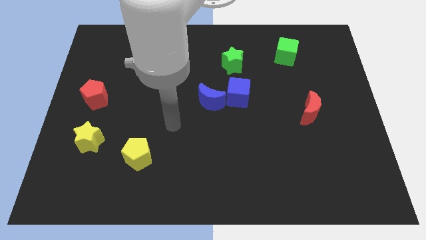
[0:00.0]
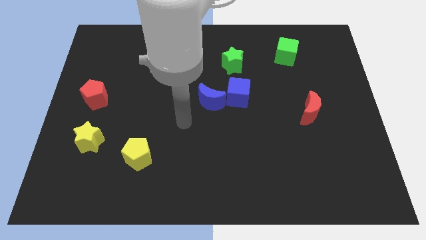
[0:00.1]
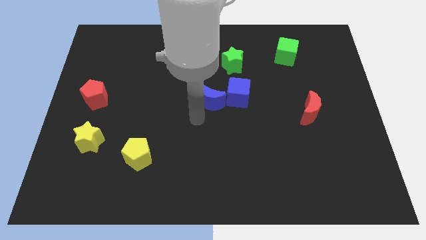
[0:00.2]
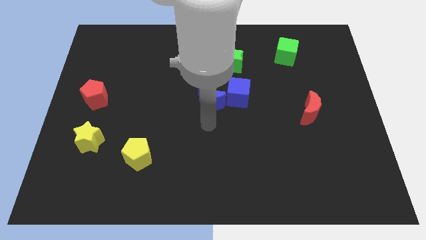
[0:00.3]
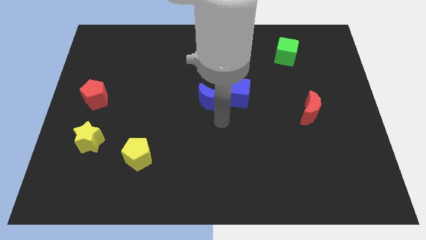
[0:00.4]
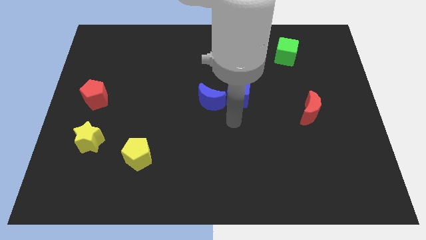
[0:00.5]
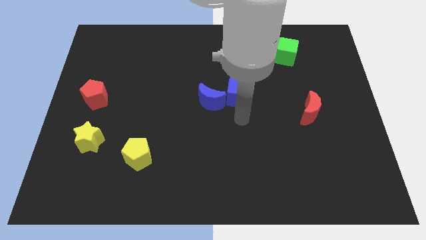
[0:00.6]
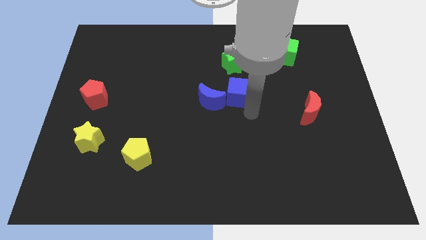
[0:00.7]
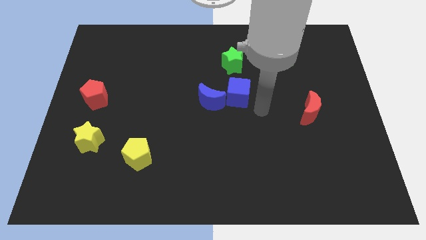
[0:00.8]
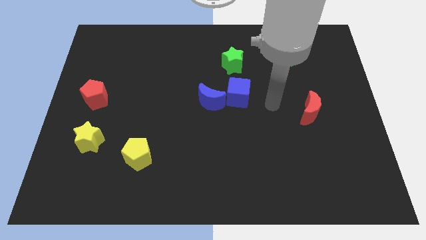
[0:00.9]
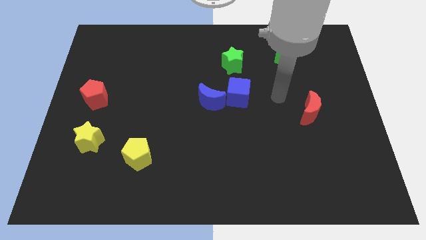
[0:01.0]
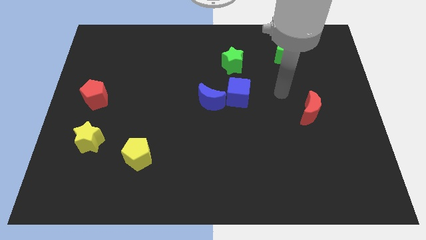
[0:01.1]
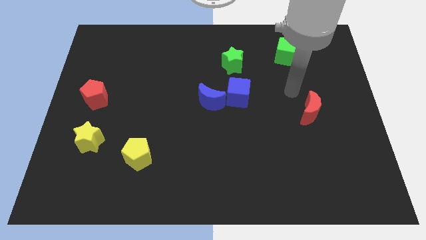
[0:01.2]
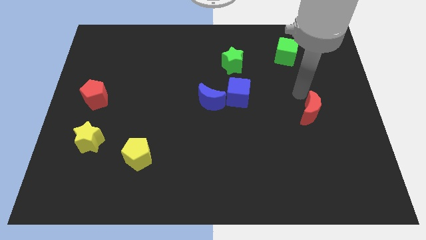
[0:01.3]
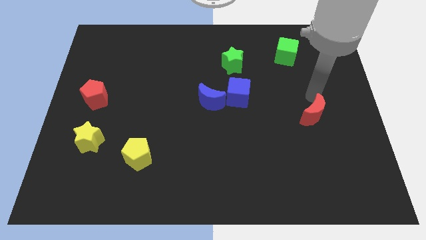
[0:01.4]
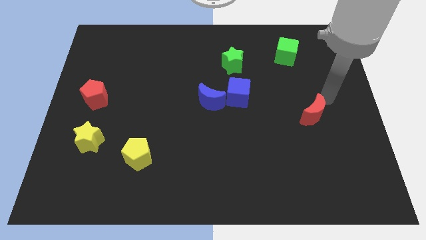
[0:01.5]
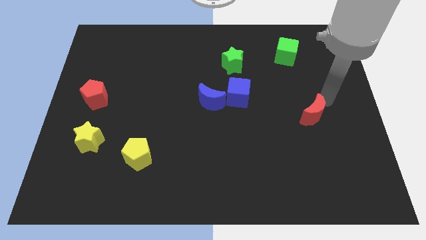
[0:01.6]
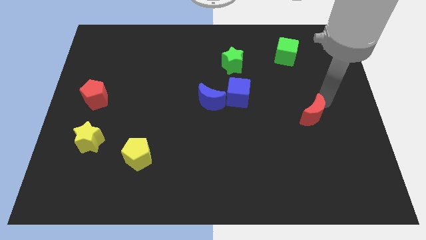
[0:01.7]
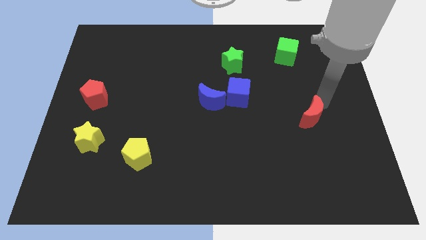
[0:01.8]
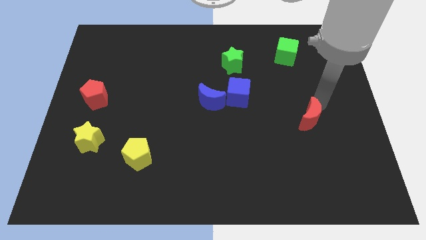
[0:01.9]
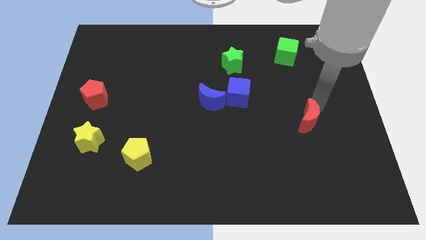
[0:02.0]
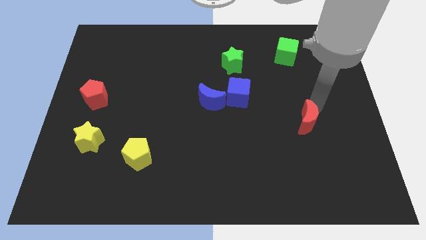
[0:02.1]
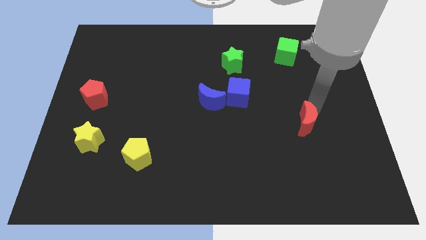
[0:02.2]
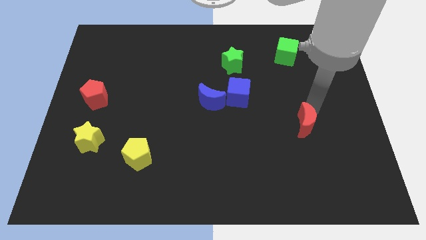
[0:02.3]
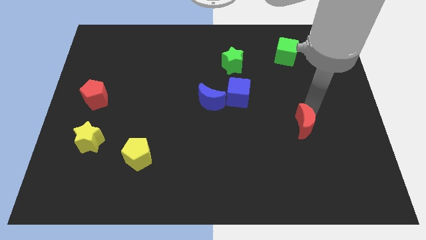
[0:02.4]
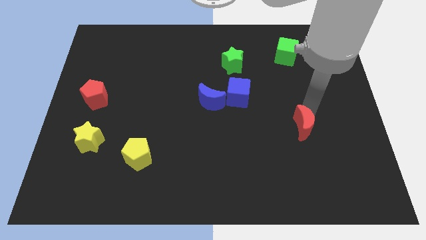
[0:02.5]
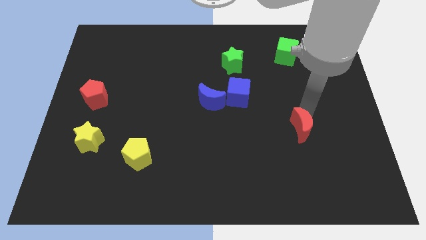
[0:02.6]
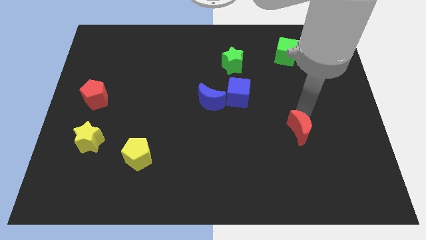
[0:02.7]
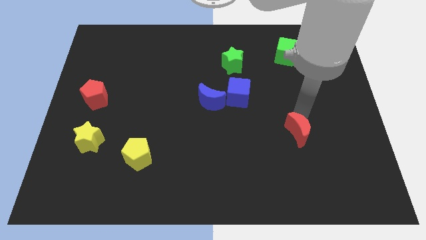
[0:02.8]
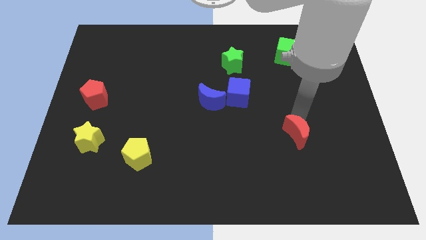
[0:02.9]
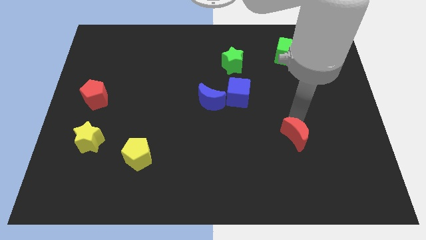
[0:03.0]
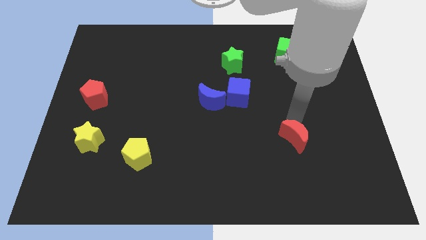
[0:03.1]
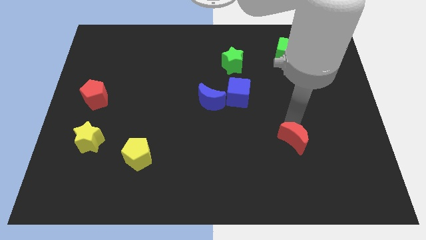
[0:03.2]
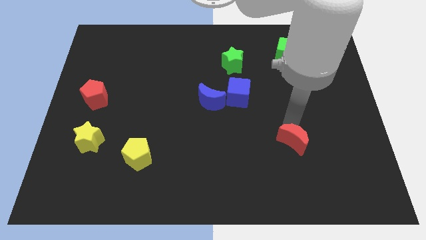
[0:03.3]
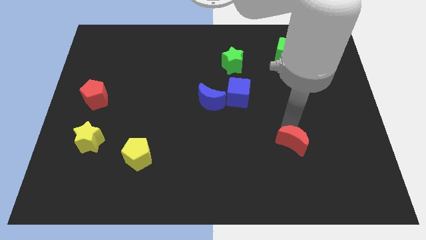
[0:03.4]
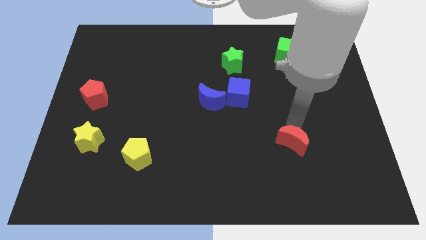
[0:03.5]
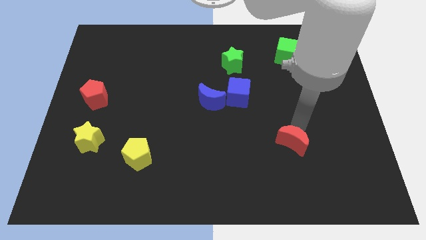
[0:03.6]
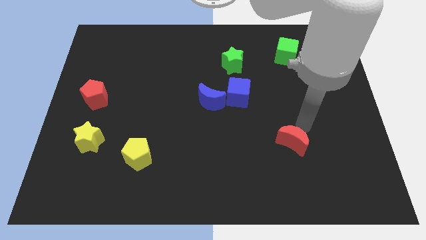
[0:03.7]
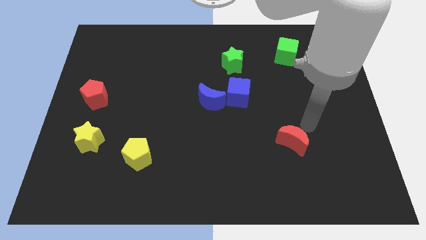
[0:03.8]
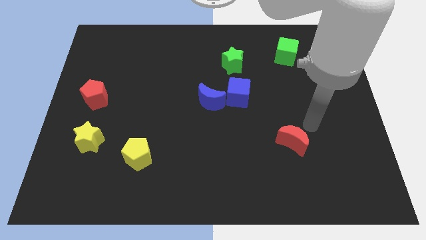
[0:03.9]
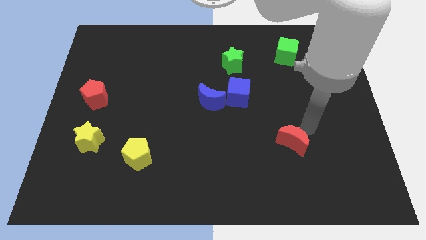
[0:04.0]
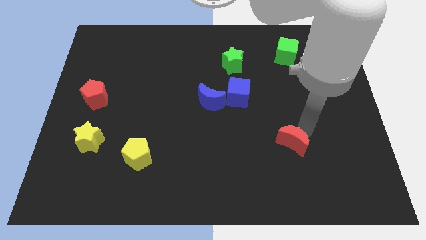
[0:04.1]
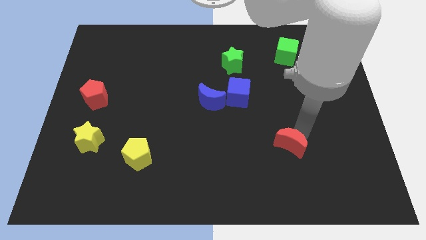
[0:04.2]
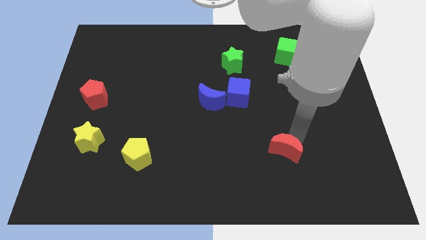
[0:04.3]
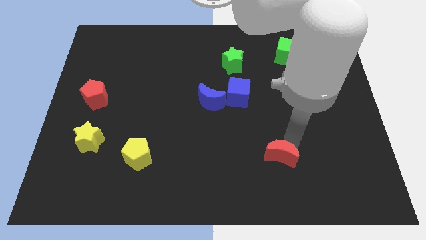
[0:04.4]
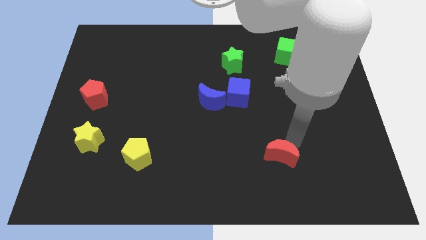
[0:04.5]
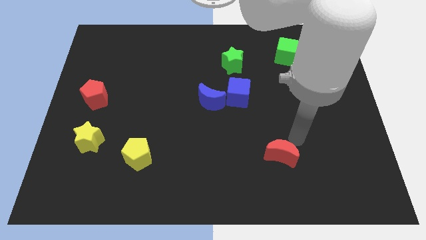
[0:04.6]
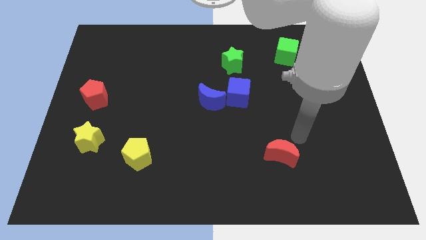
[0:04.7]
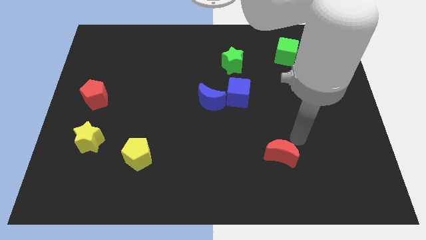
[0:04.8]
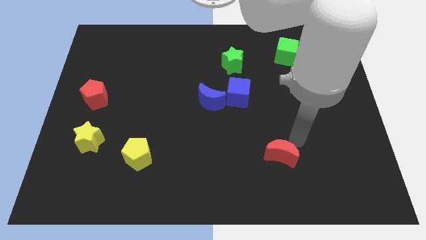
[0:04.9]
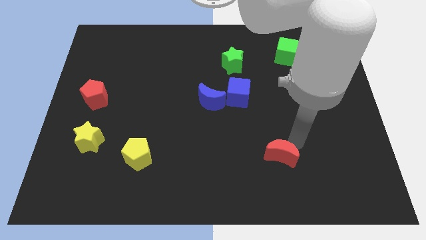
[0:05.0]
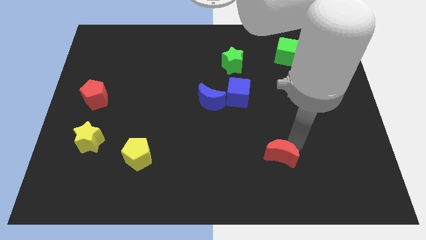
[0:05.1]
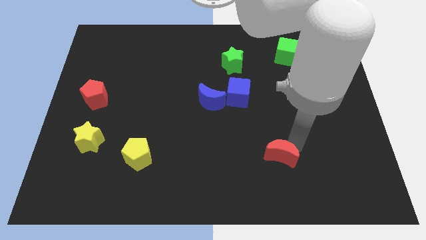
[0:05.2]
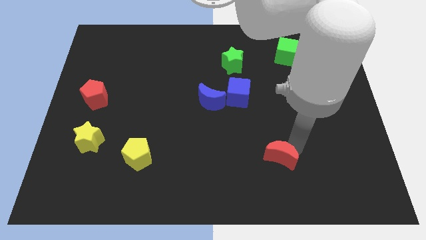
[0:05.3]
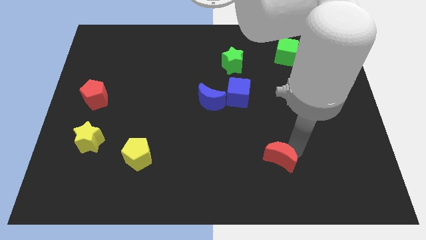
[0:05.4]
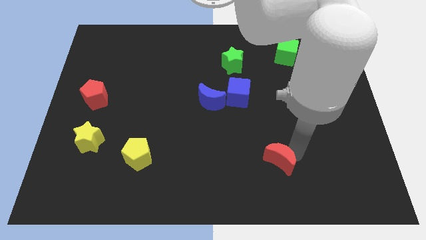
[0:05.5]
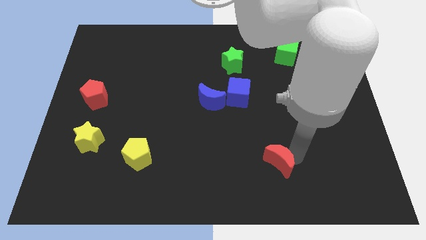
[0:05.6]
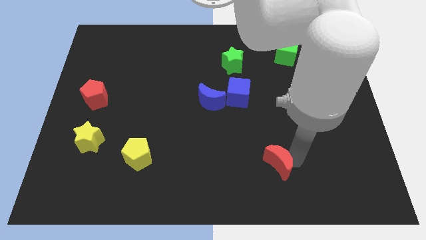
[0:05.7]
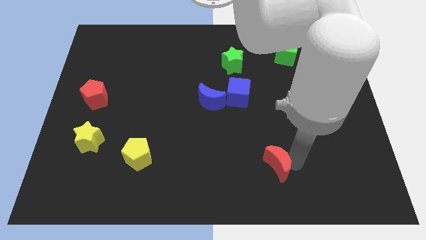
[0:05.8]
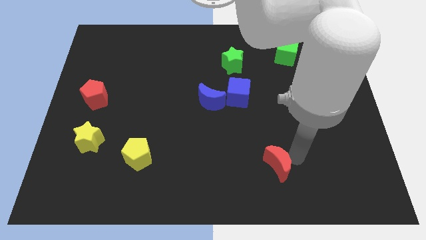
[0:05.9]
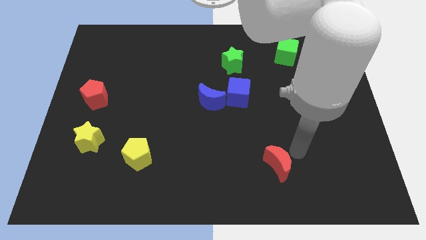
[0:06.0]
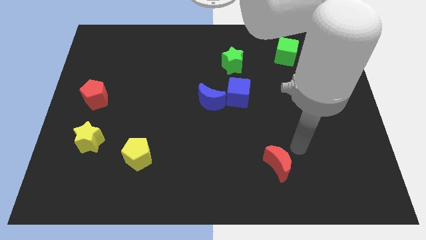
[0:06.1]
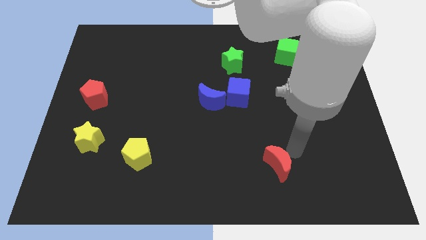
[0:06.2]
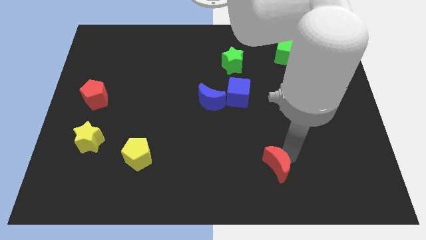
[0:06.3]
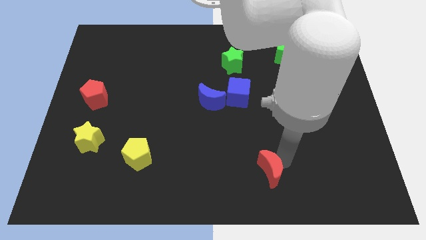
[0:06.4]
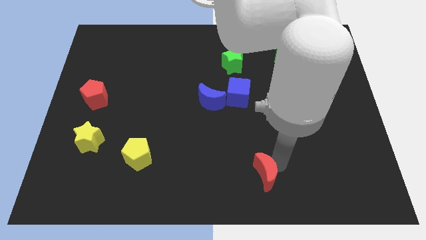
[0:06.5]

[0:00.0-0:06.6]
push the red moon to the bottom side

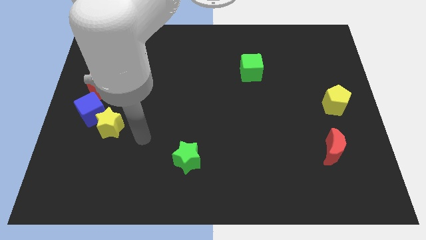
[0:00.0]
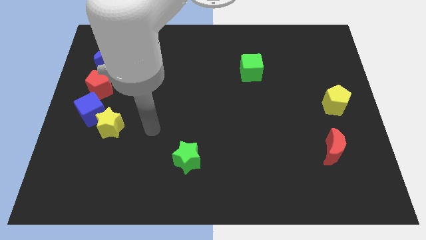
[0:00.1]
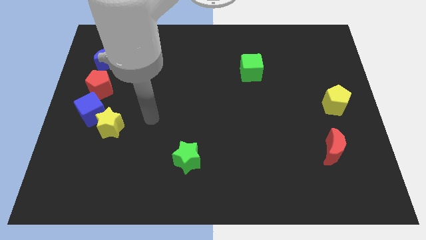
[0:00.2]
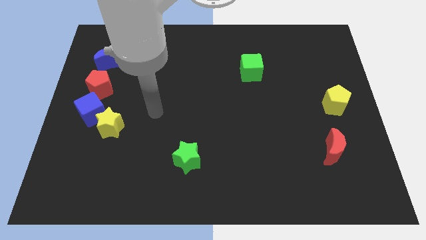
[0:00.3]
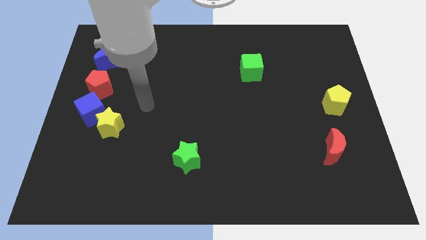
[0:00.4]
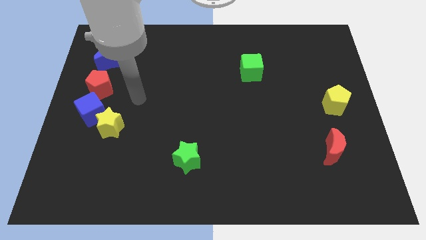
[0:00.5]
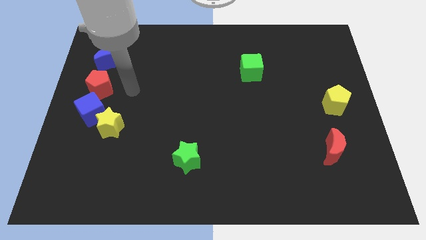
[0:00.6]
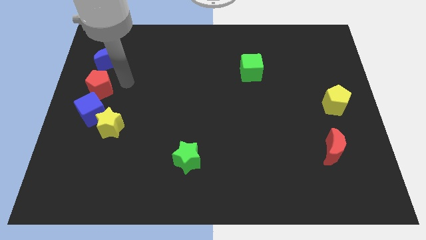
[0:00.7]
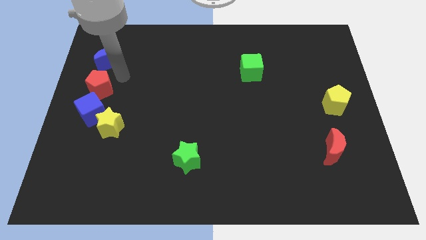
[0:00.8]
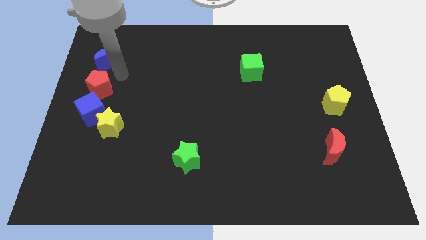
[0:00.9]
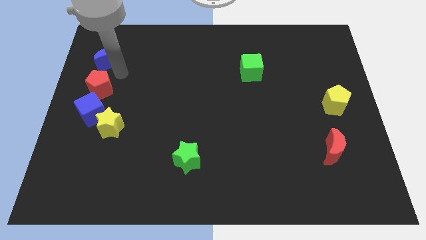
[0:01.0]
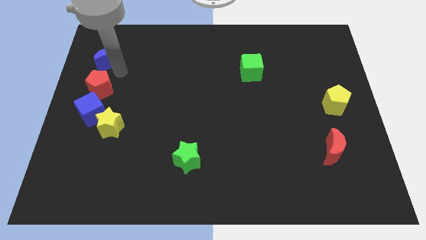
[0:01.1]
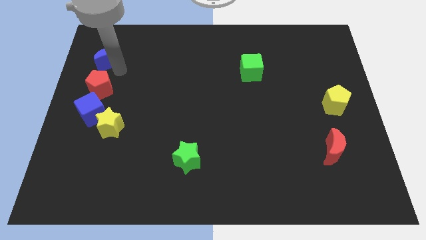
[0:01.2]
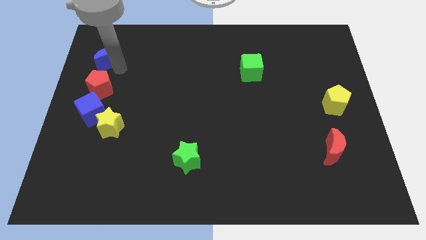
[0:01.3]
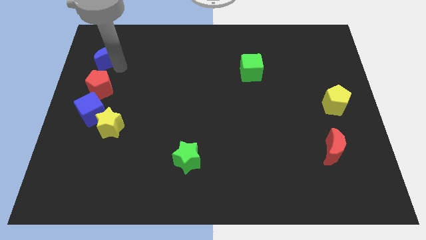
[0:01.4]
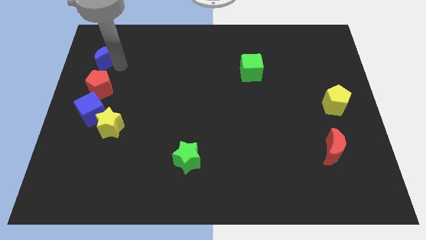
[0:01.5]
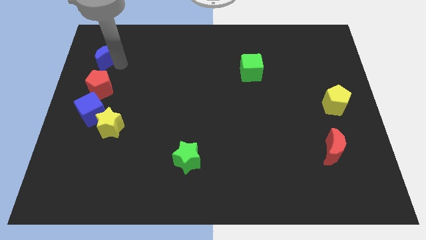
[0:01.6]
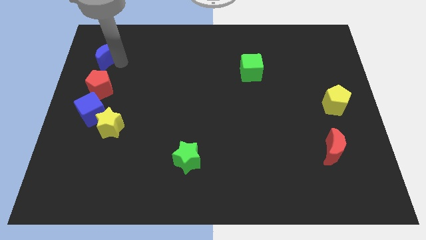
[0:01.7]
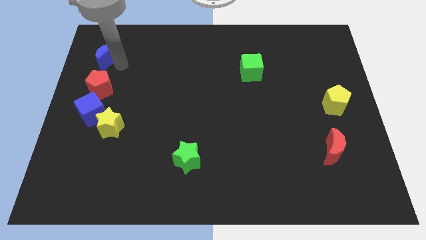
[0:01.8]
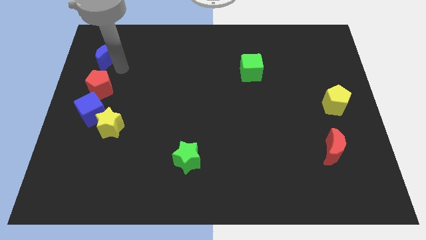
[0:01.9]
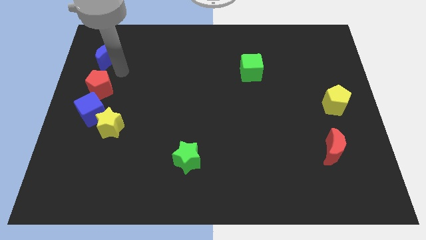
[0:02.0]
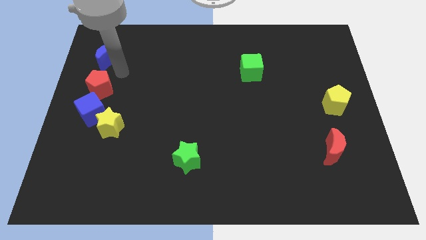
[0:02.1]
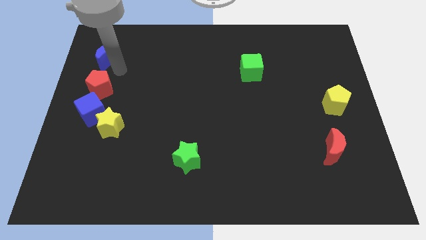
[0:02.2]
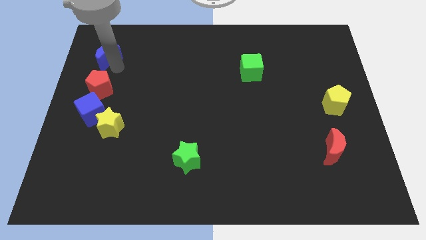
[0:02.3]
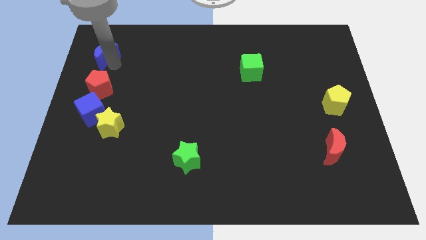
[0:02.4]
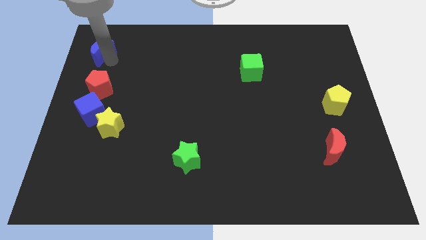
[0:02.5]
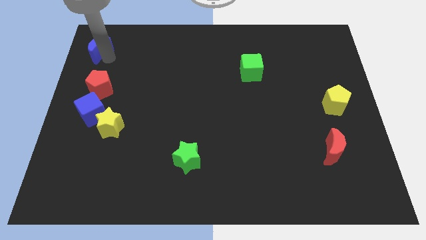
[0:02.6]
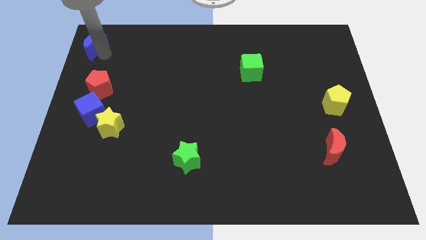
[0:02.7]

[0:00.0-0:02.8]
put the blue moon to the top left corner
